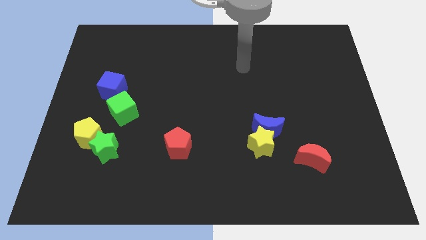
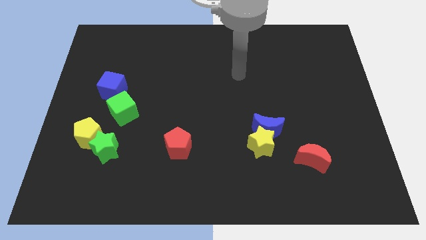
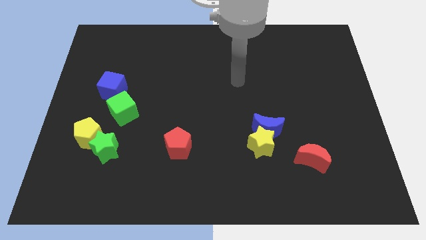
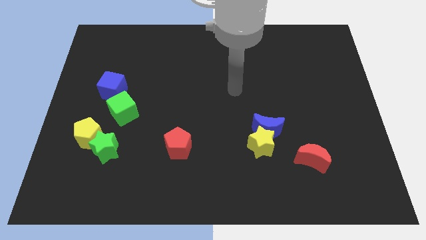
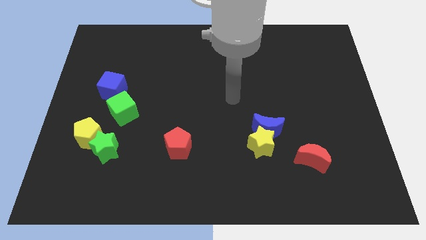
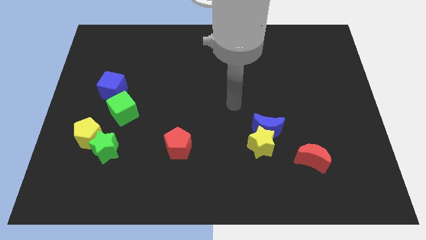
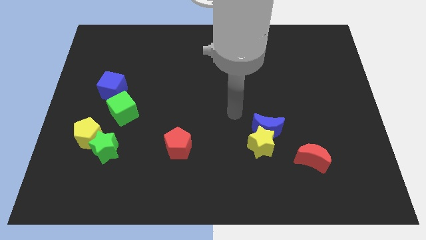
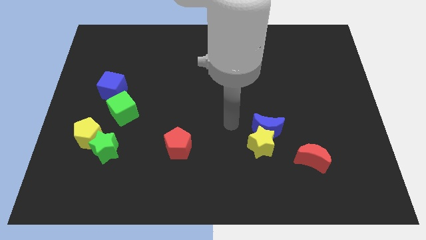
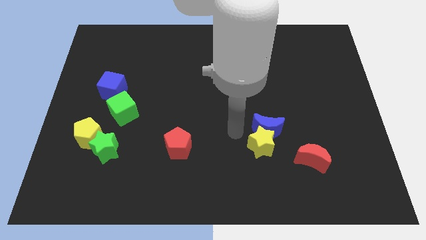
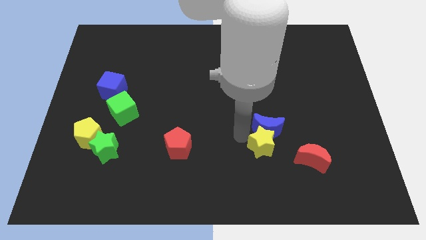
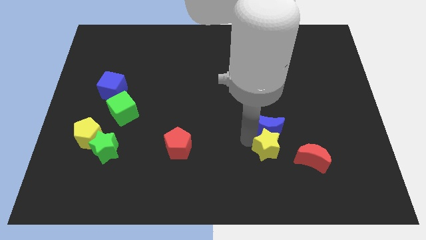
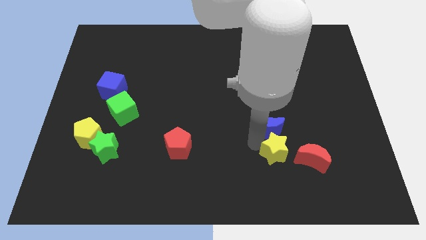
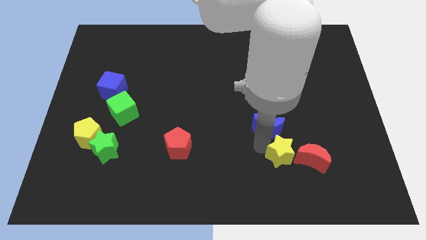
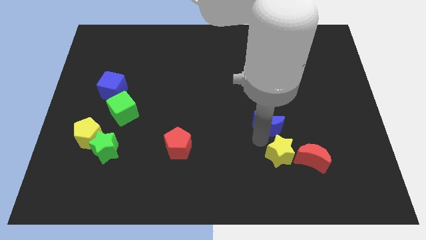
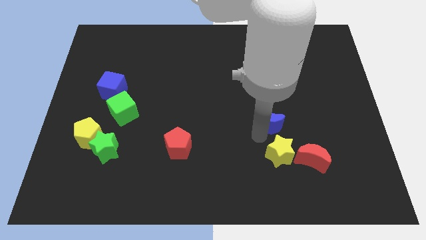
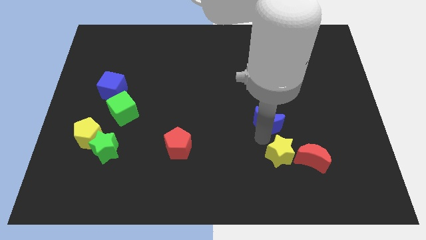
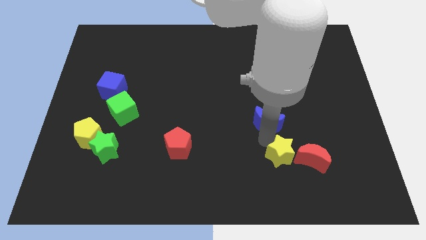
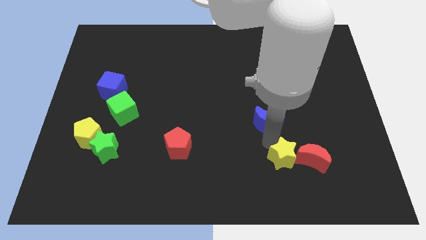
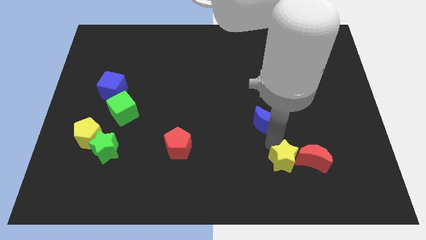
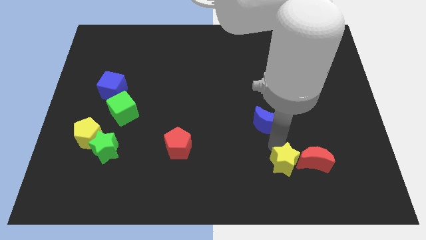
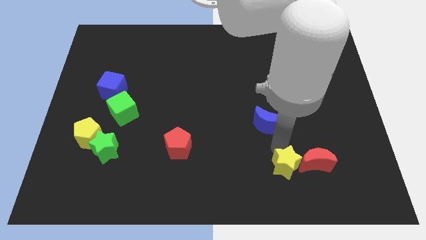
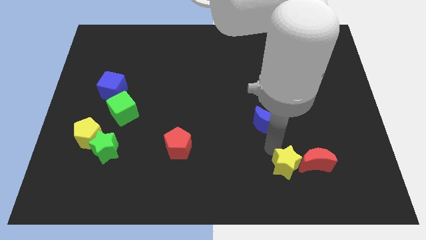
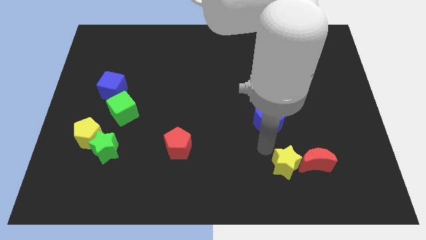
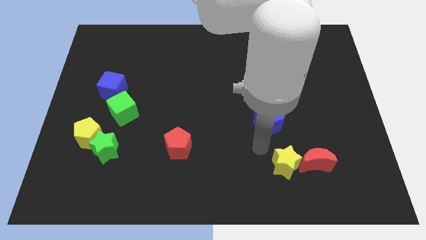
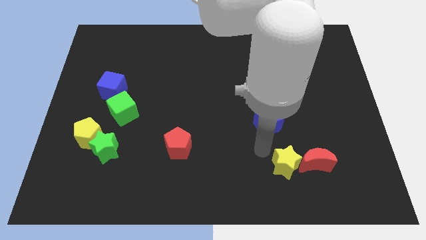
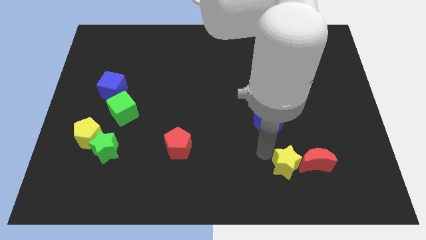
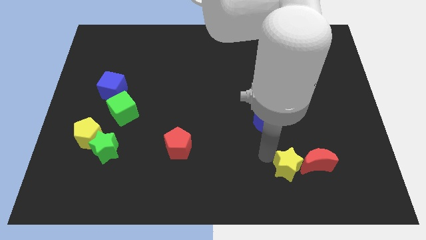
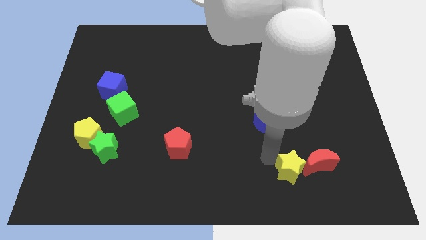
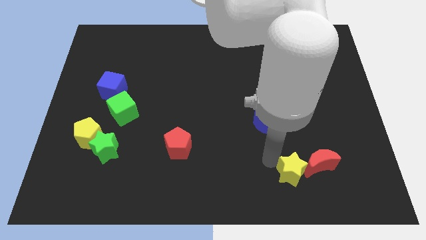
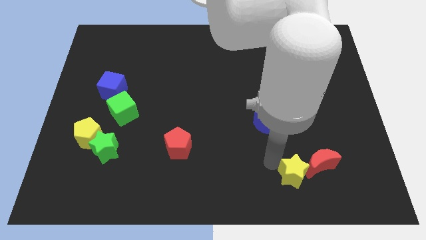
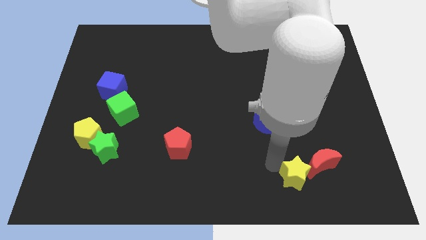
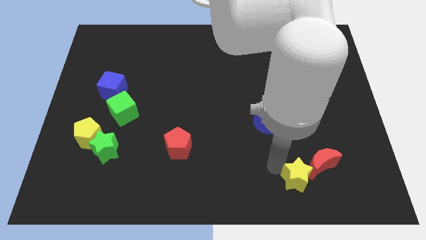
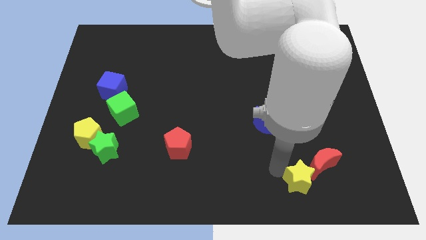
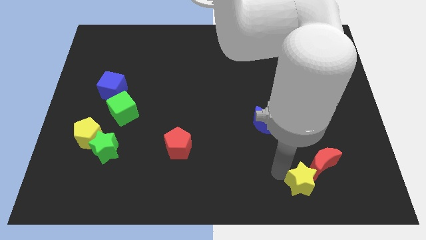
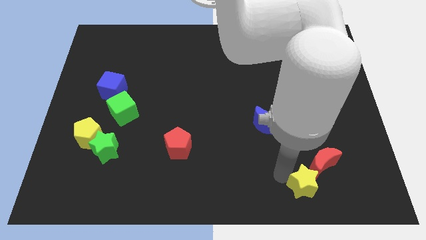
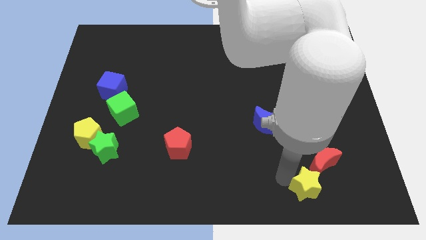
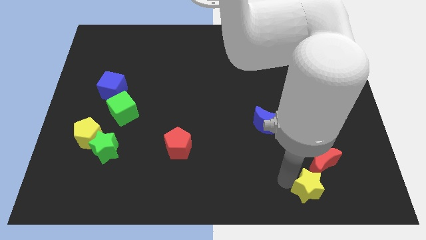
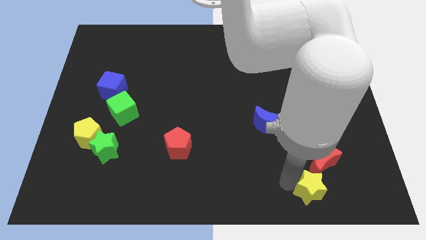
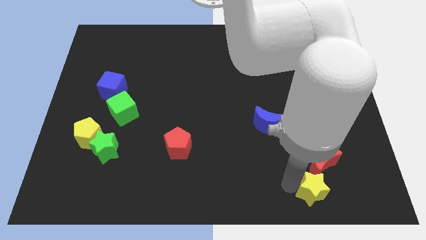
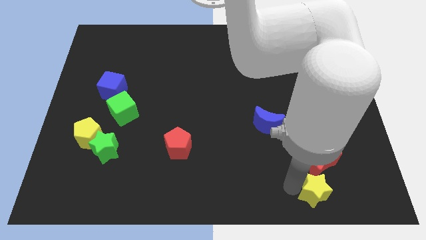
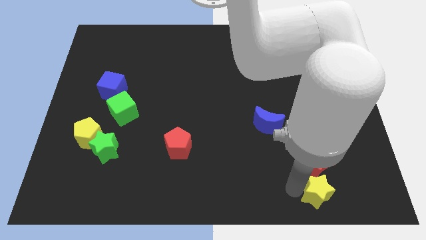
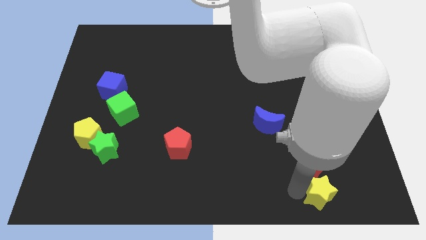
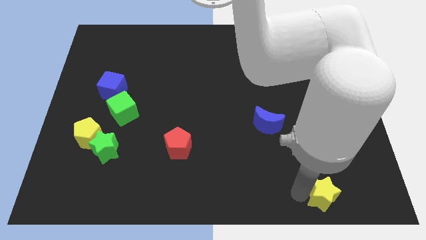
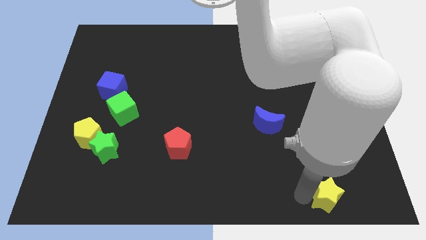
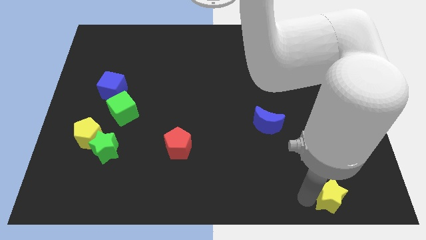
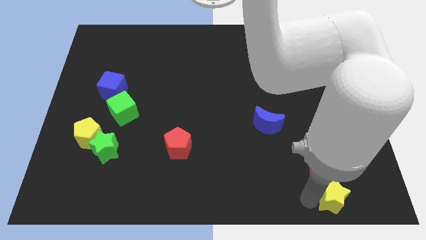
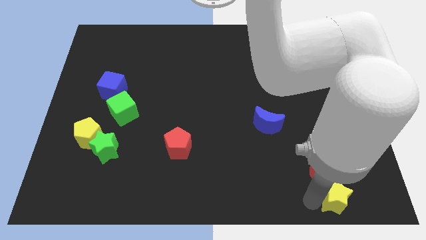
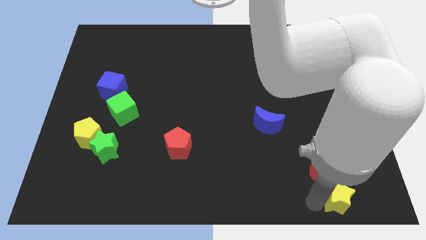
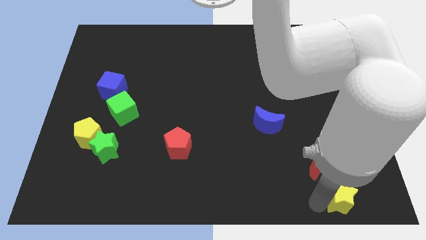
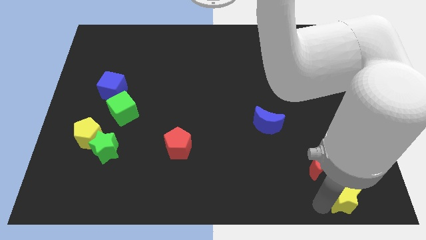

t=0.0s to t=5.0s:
put the yellow star to the bottom right of the board

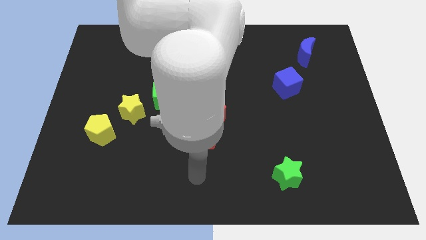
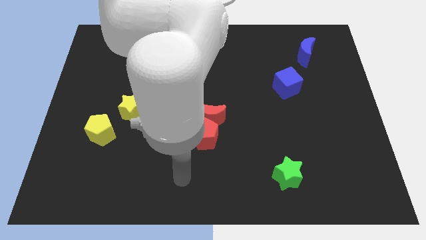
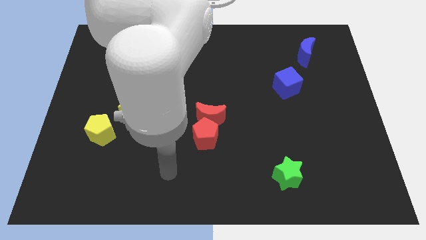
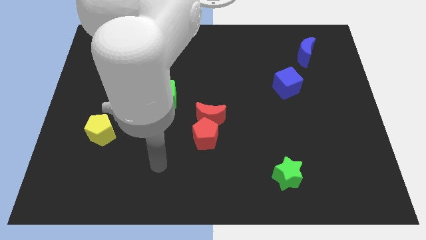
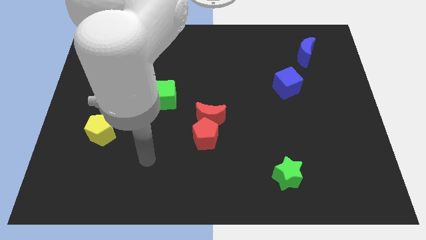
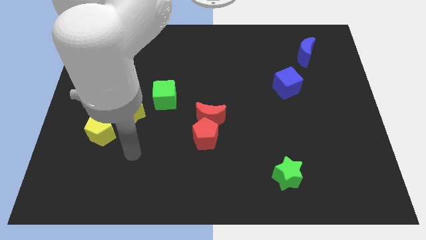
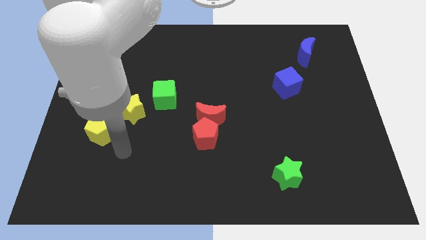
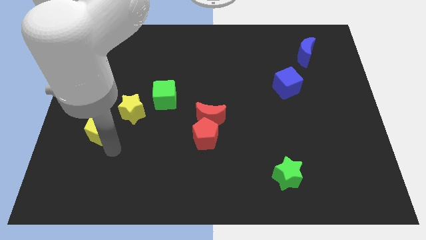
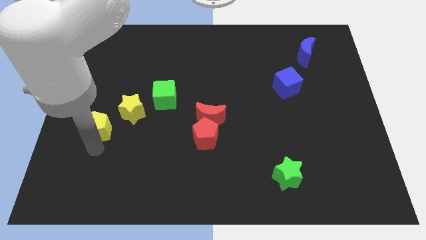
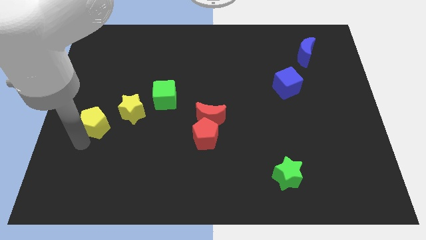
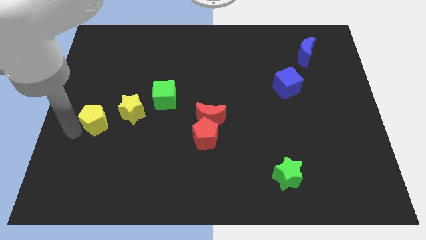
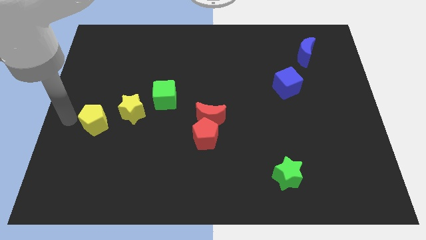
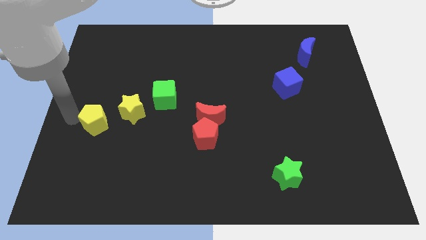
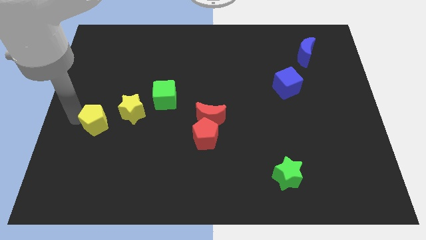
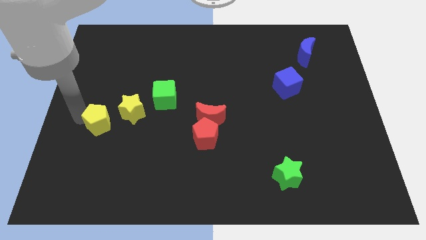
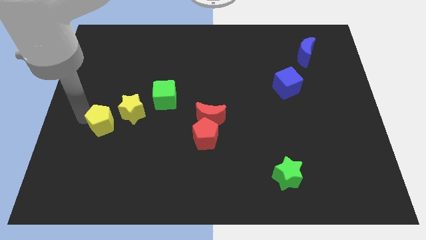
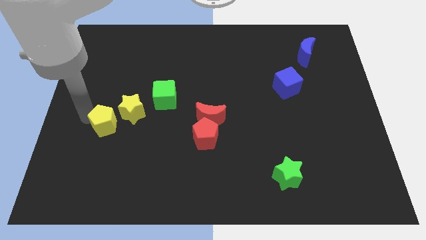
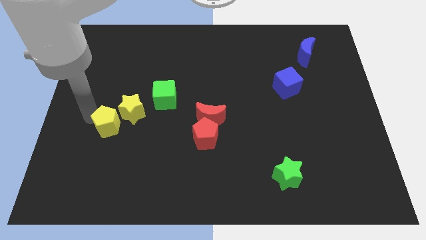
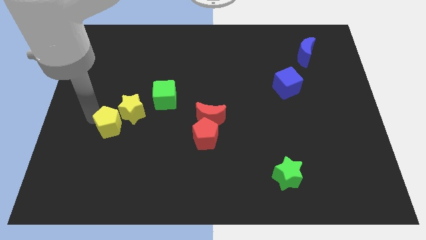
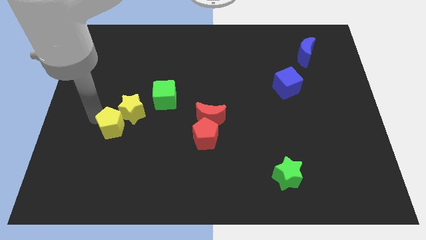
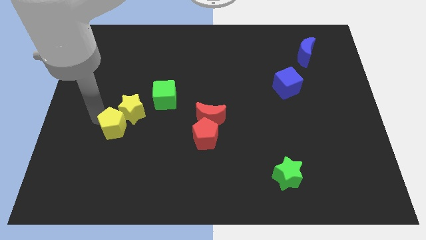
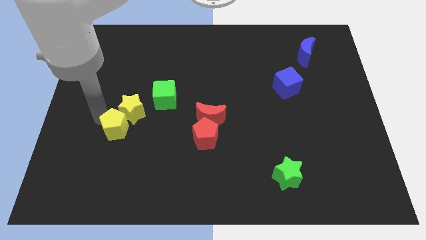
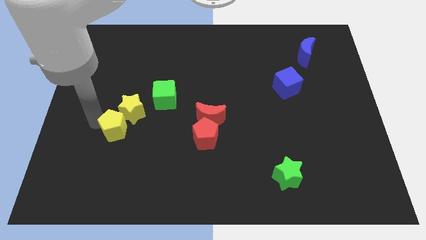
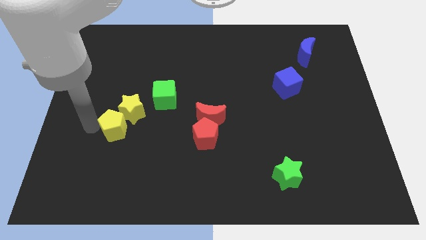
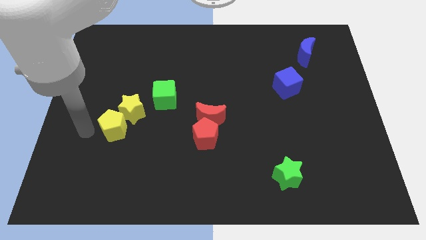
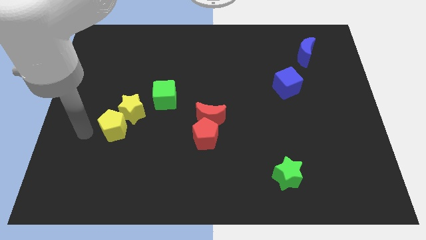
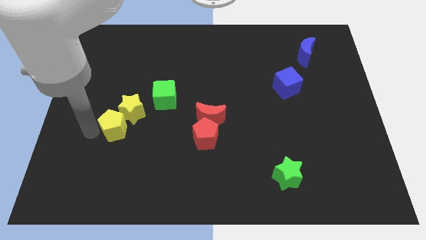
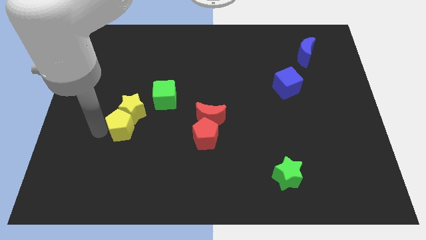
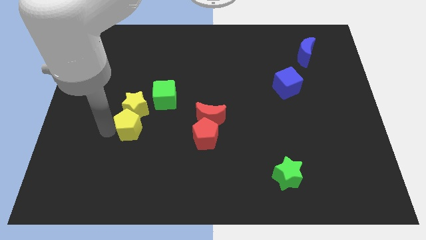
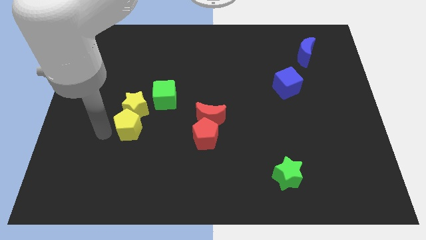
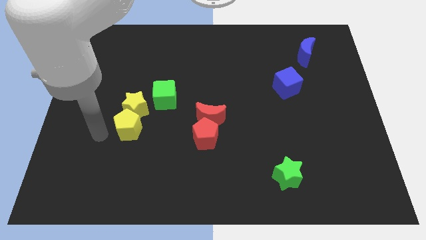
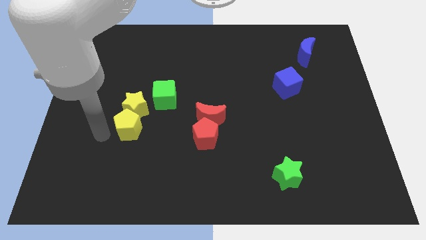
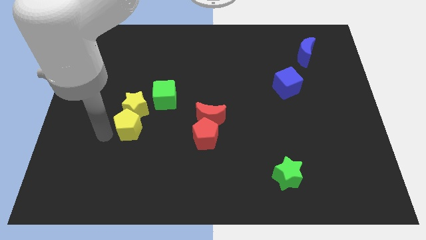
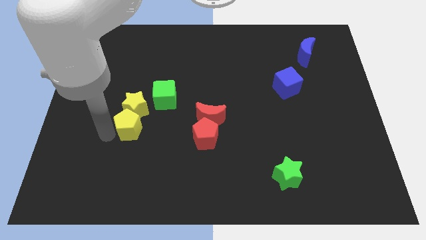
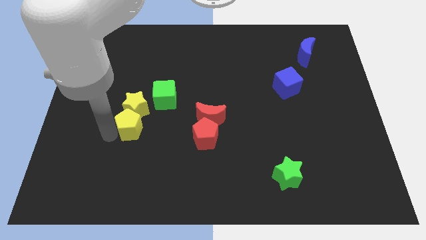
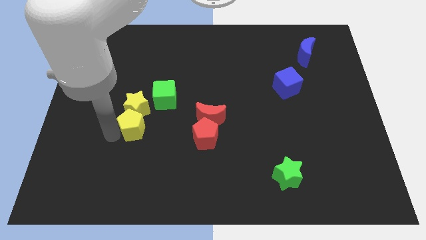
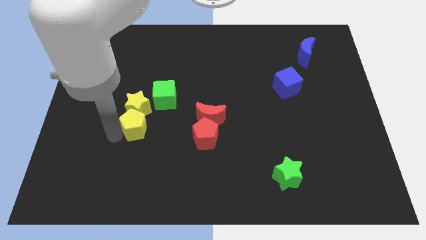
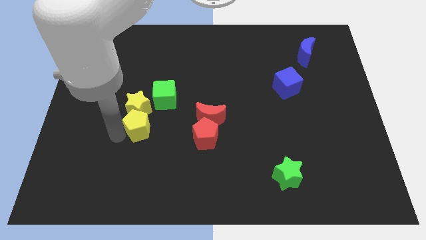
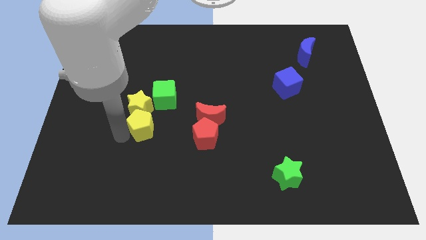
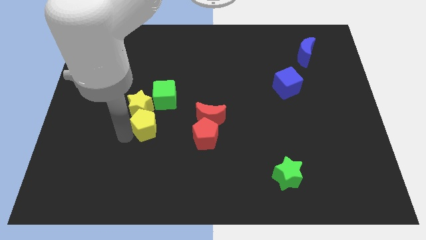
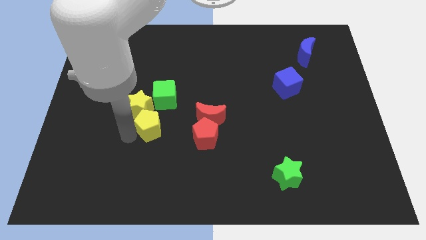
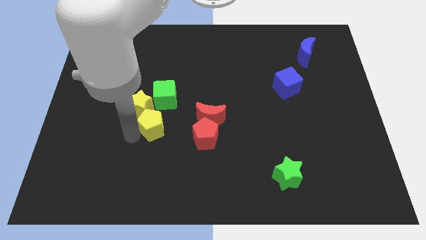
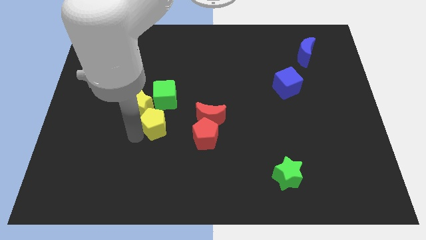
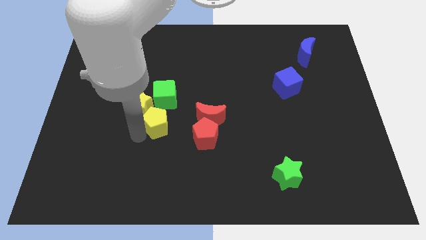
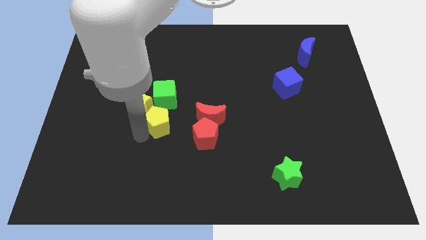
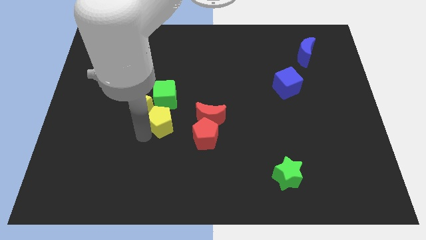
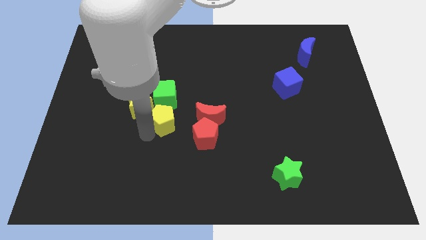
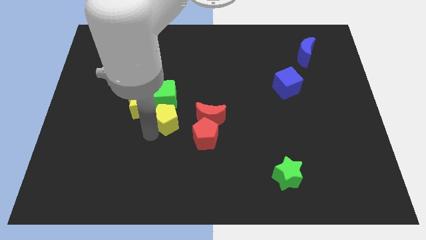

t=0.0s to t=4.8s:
slide the yellow pentagon to the center
